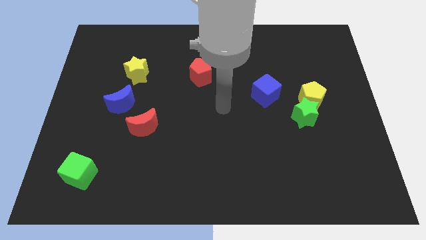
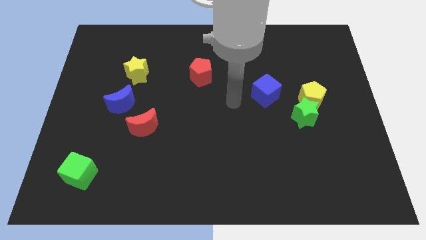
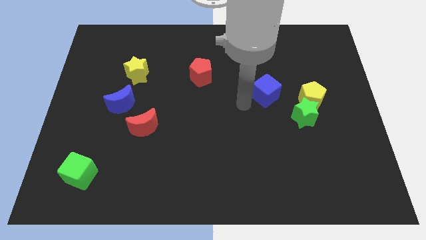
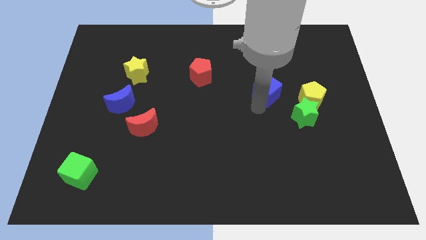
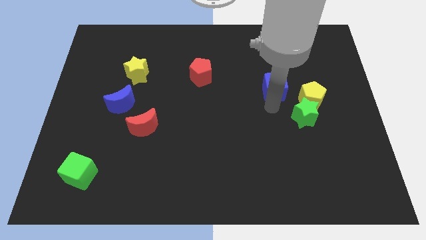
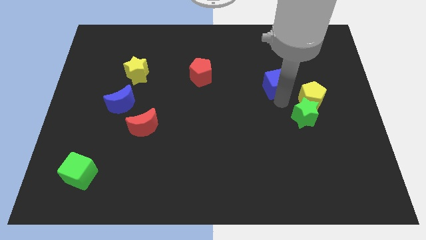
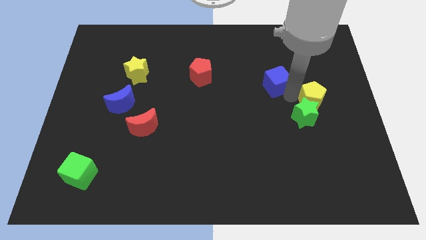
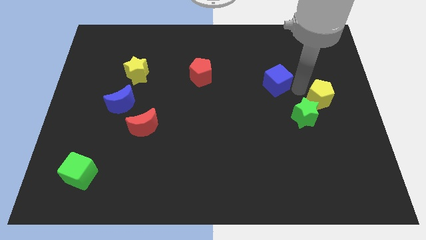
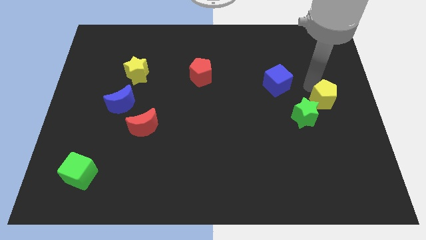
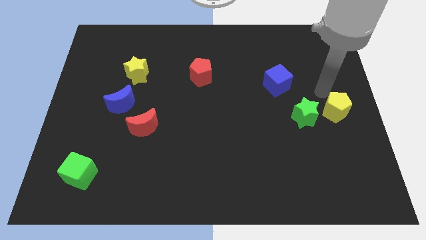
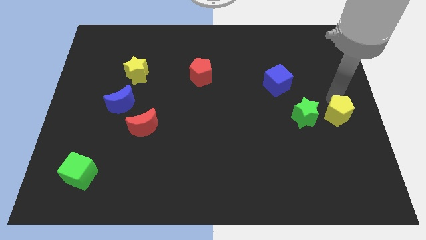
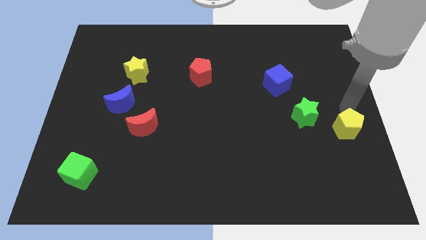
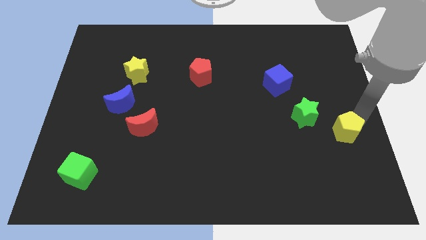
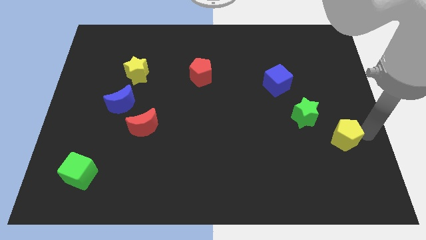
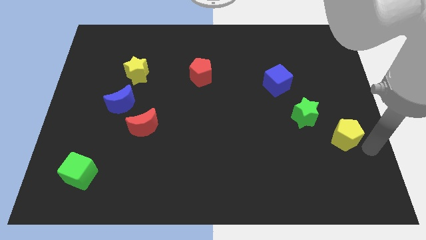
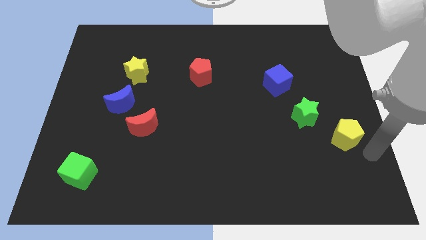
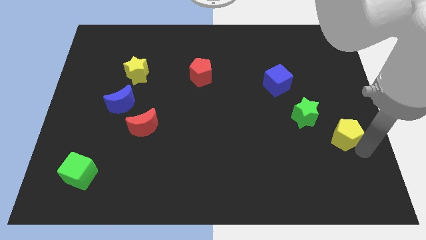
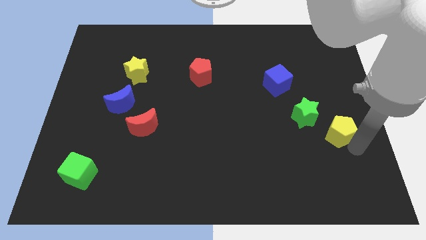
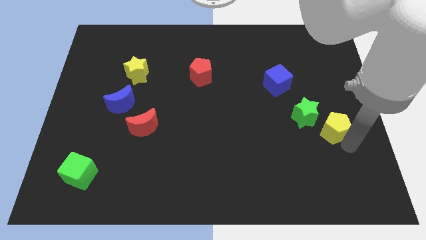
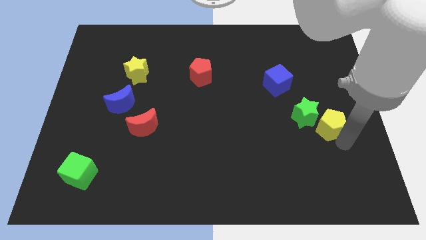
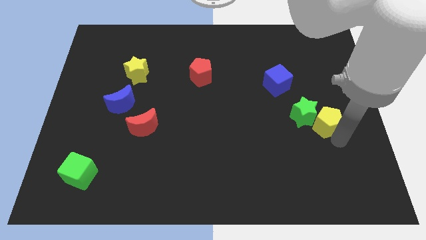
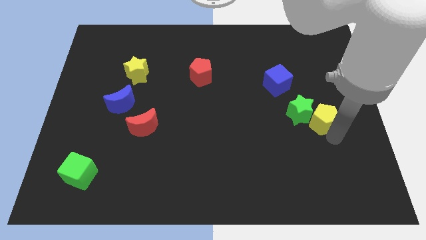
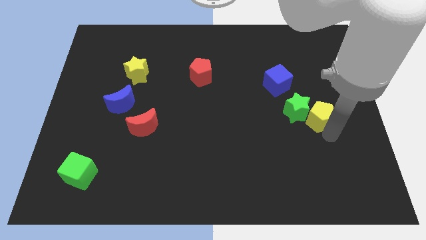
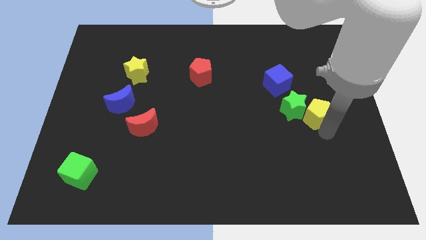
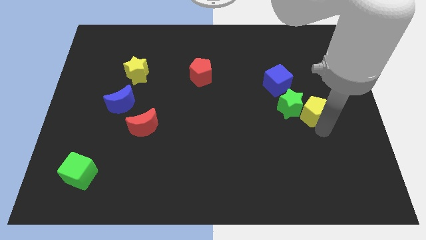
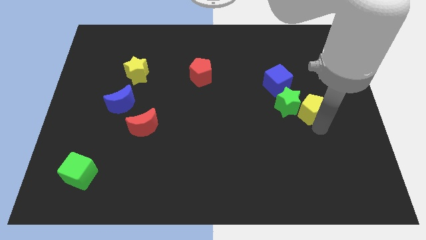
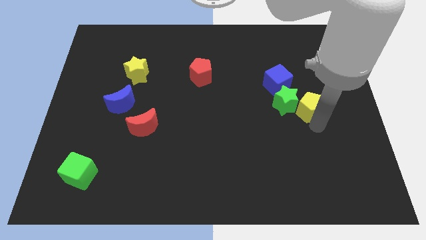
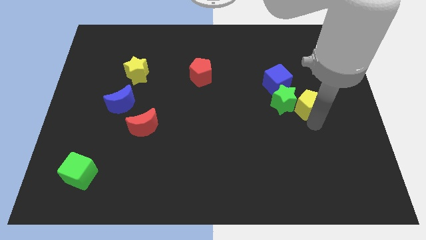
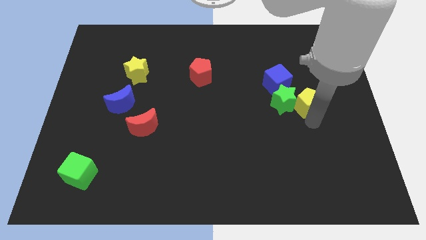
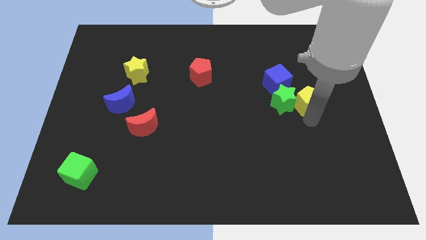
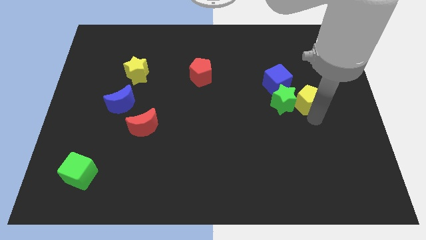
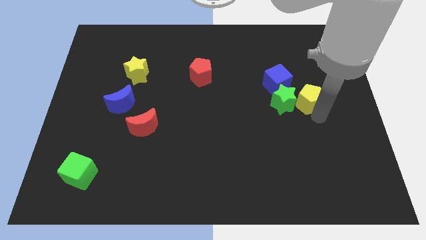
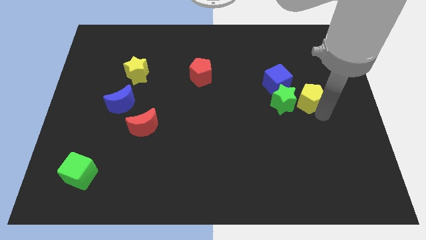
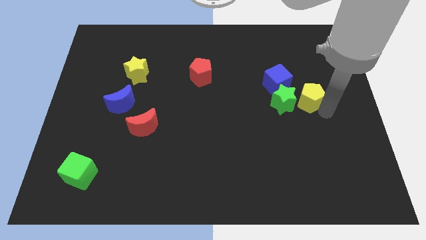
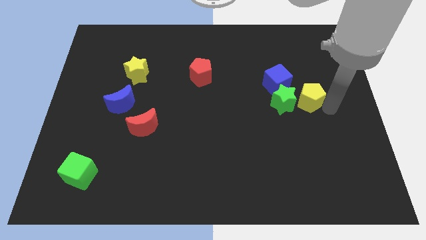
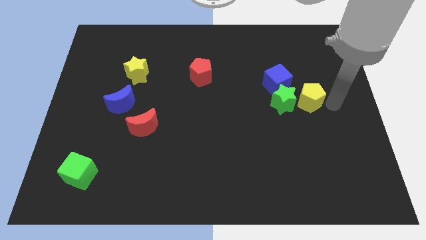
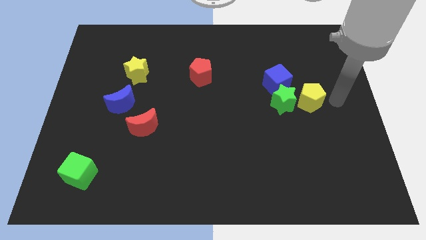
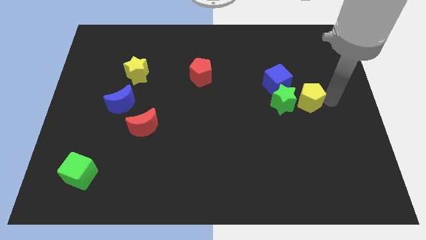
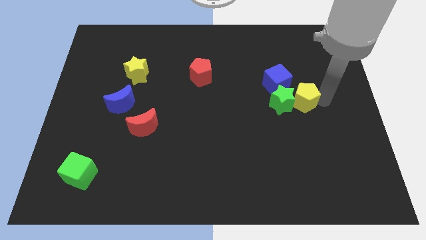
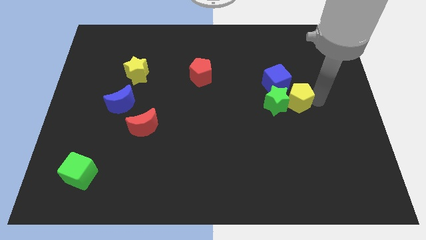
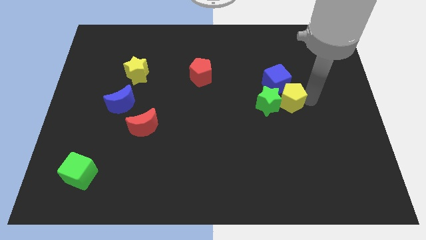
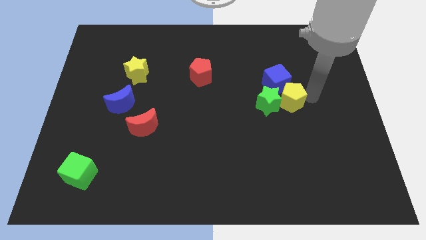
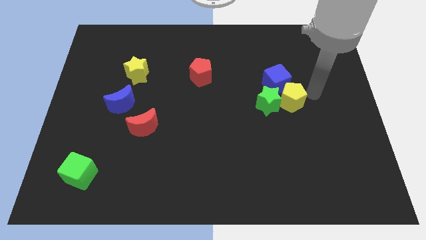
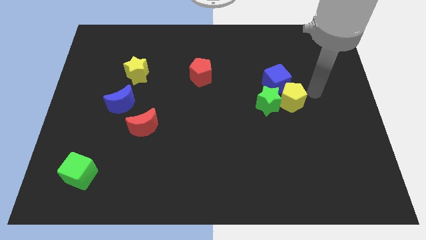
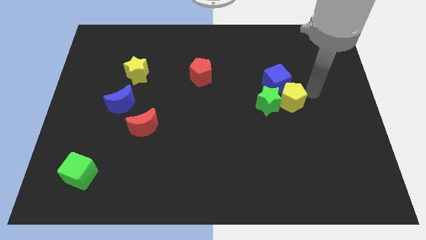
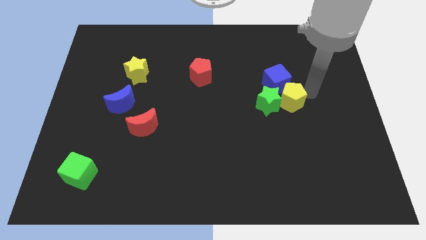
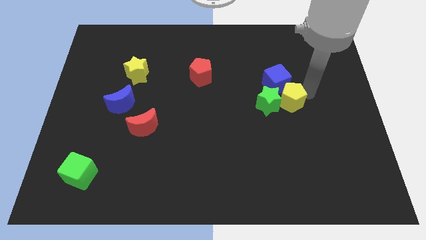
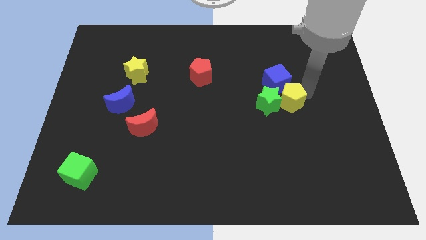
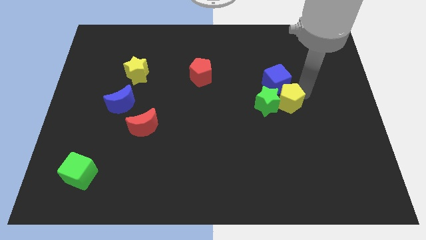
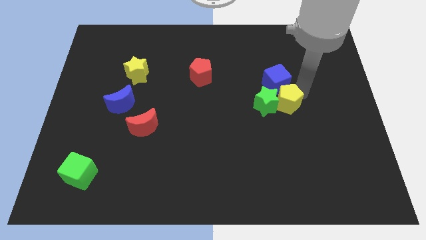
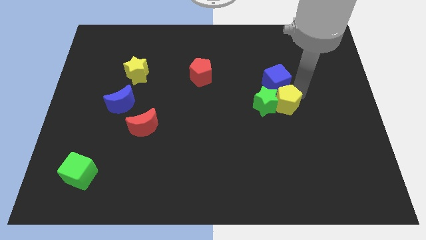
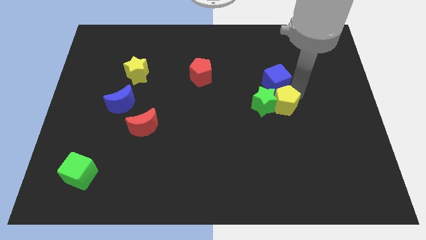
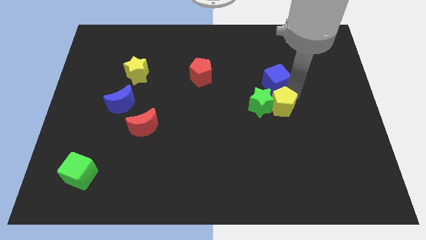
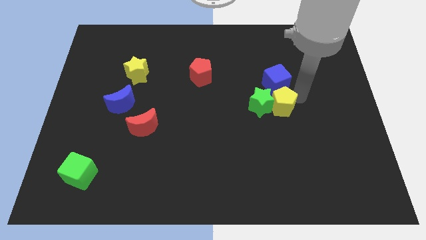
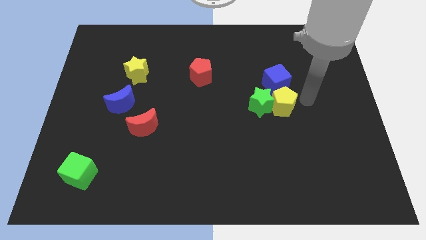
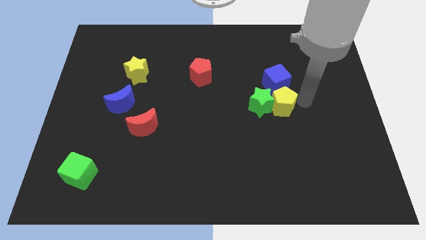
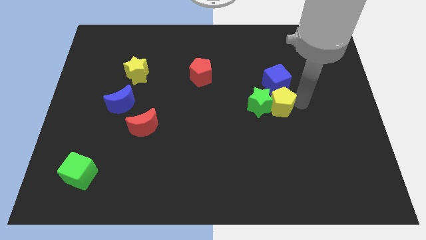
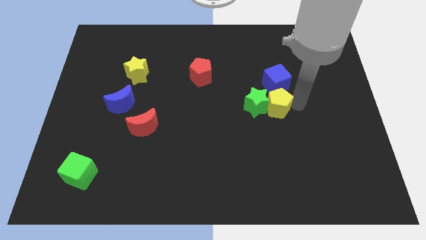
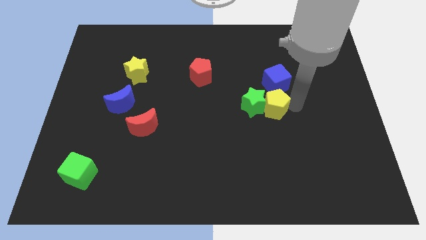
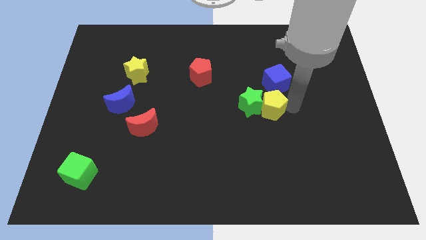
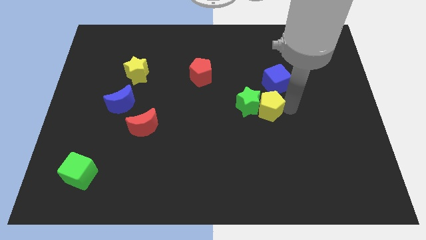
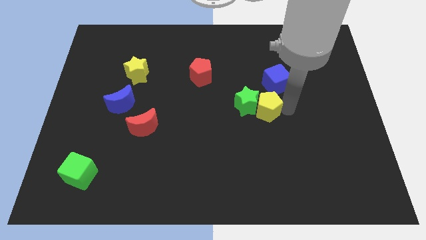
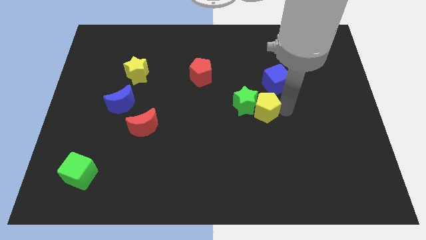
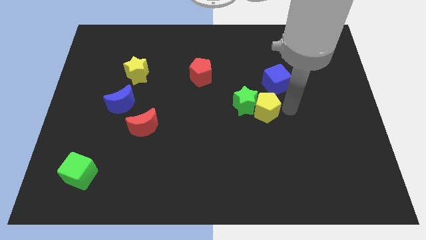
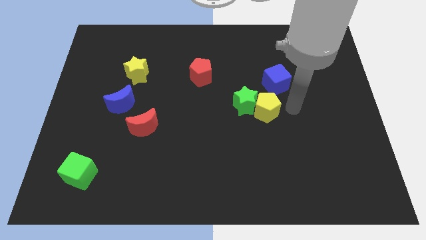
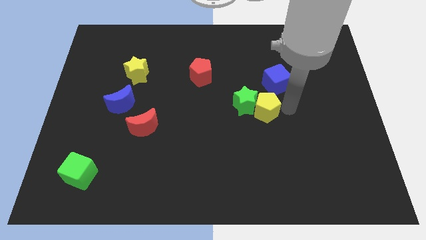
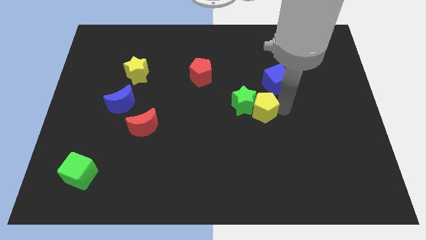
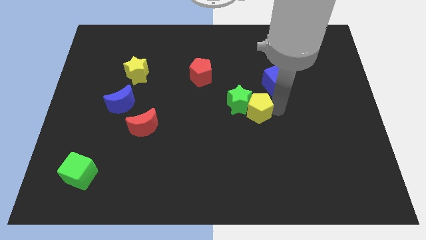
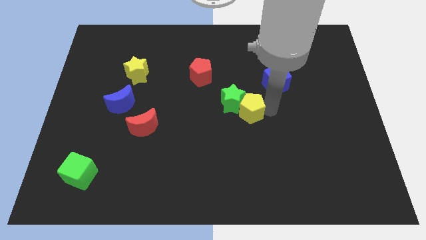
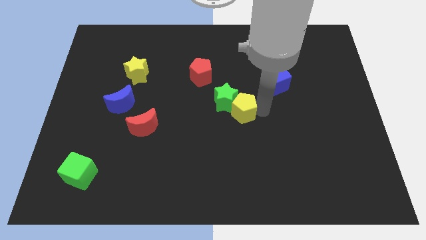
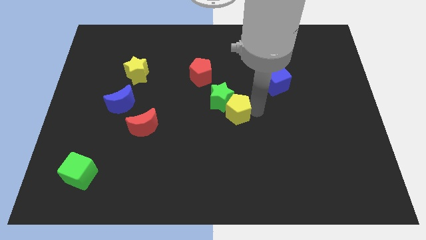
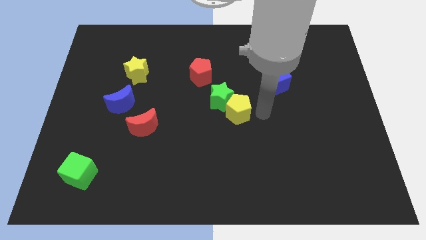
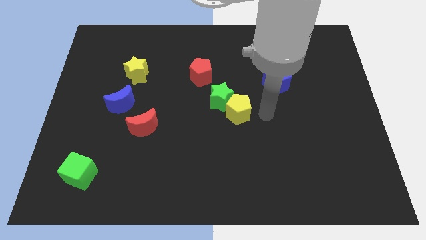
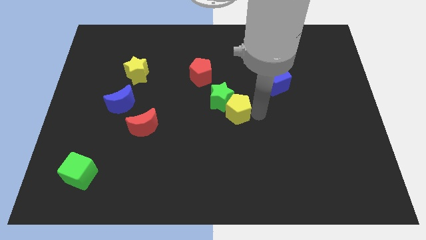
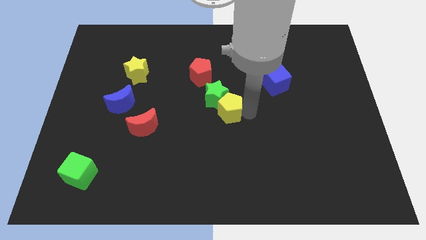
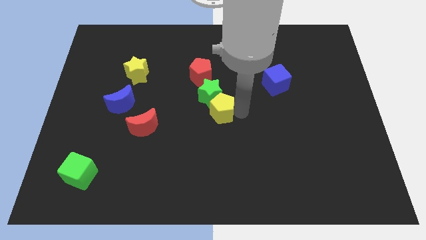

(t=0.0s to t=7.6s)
slide the yellow pentagon left
